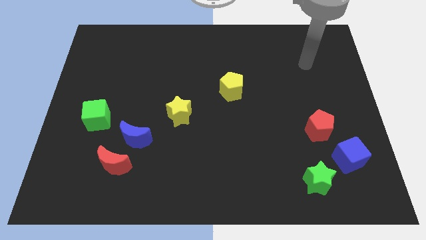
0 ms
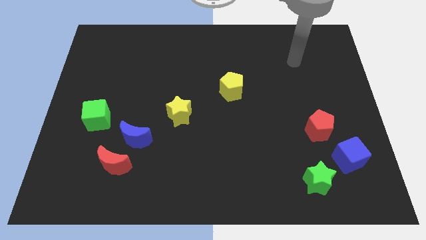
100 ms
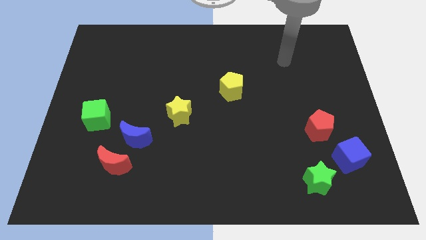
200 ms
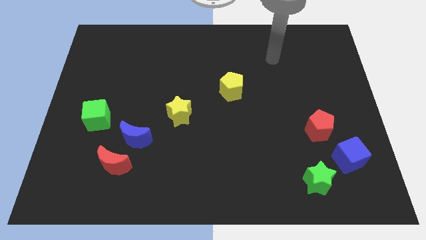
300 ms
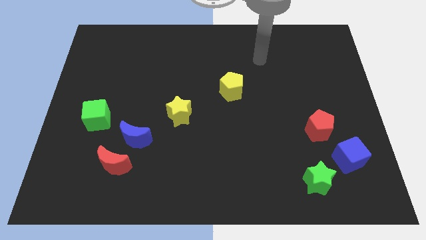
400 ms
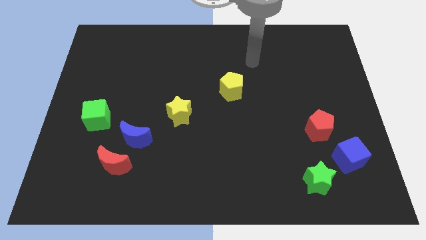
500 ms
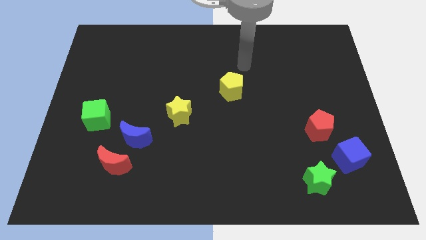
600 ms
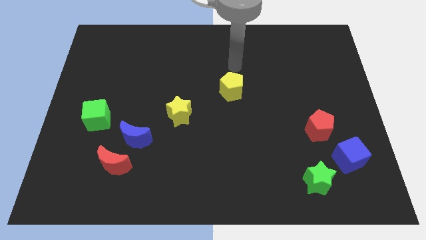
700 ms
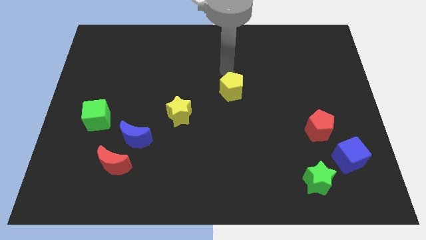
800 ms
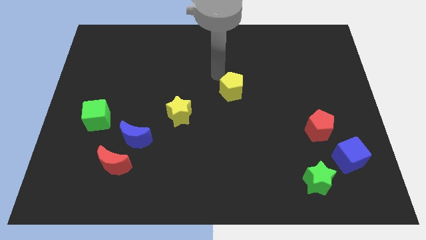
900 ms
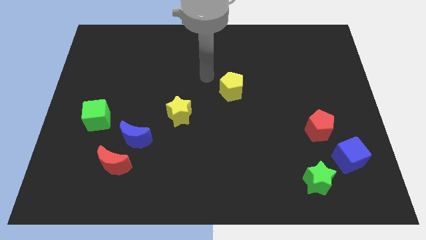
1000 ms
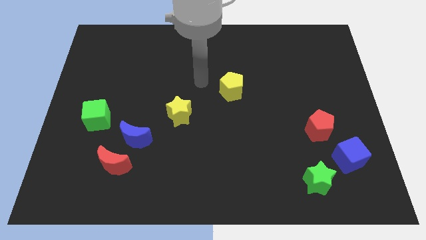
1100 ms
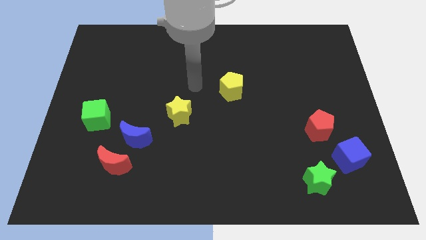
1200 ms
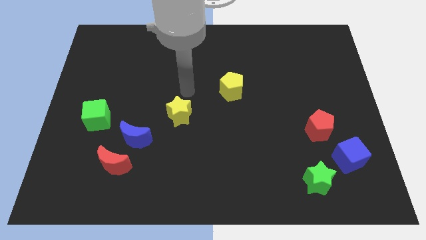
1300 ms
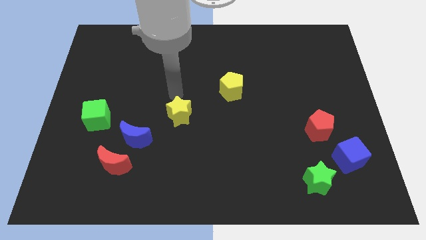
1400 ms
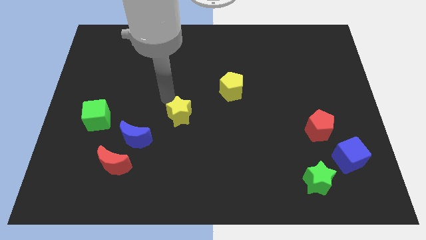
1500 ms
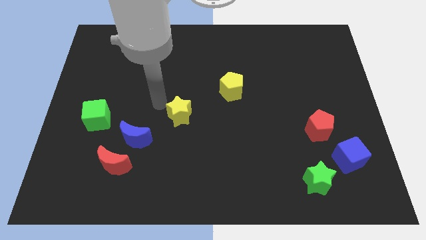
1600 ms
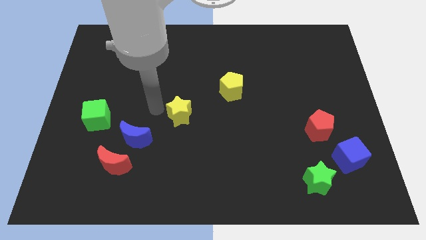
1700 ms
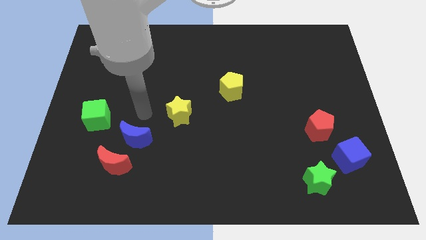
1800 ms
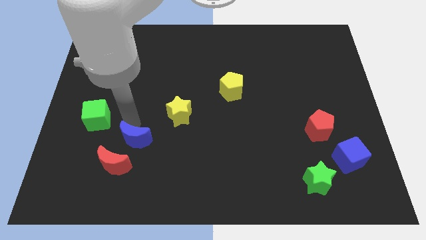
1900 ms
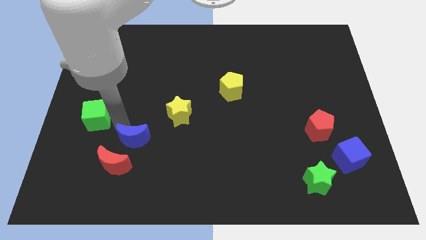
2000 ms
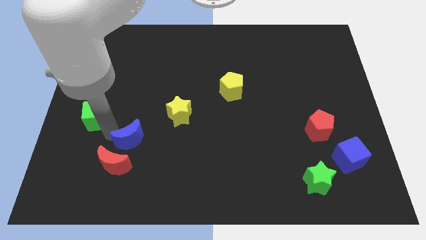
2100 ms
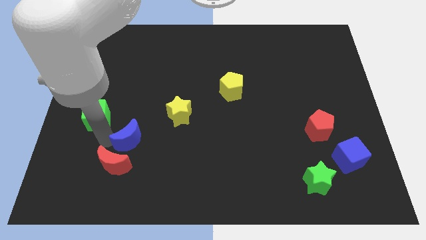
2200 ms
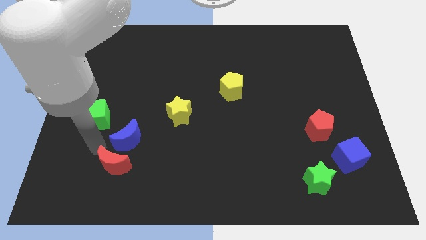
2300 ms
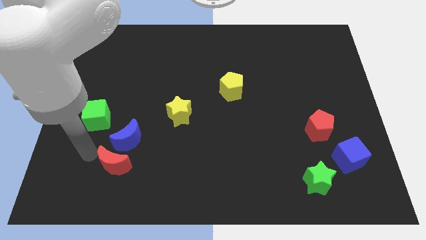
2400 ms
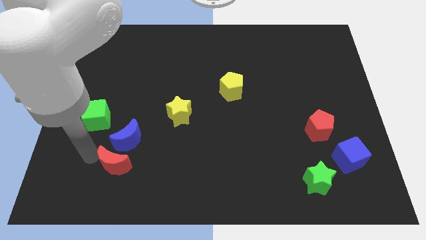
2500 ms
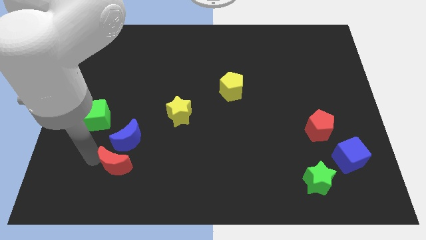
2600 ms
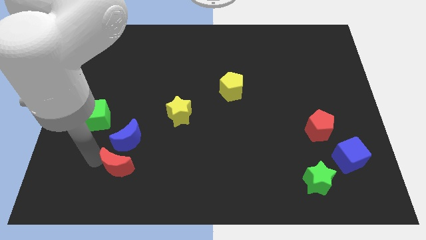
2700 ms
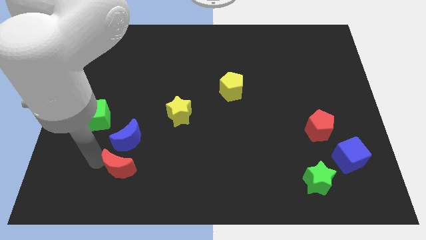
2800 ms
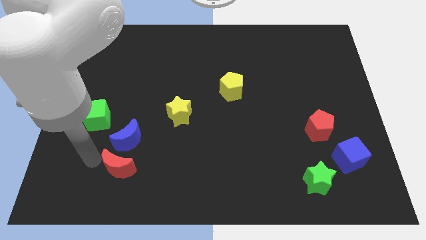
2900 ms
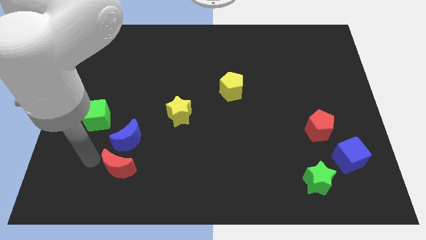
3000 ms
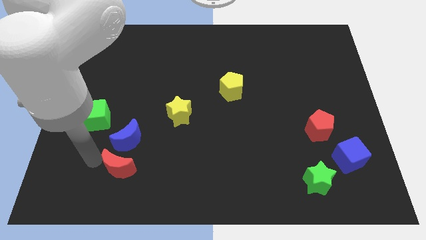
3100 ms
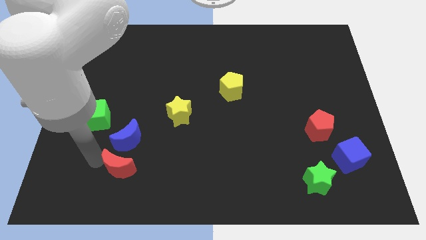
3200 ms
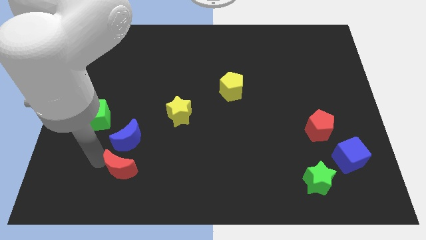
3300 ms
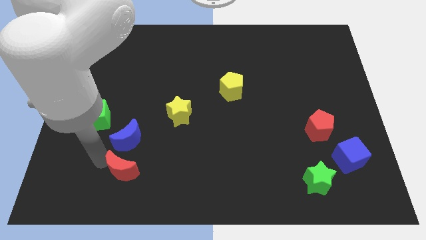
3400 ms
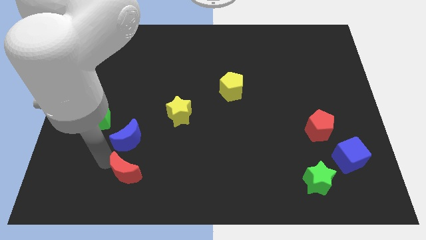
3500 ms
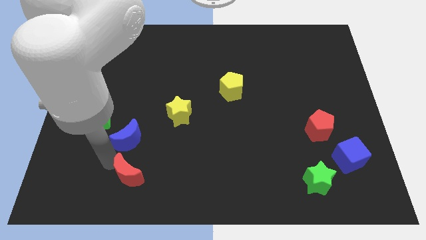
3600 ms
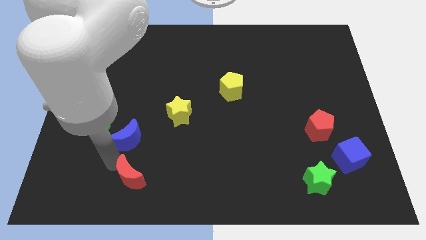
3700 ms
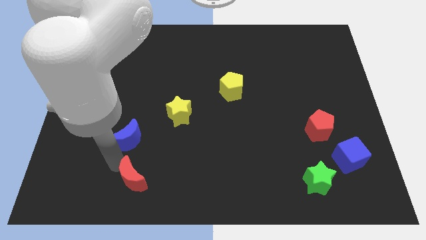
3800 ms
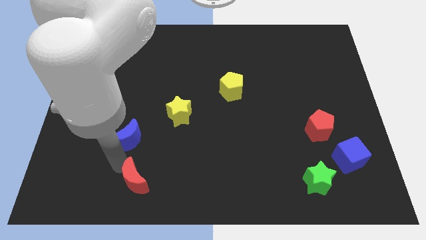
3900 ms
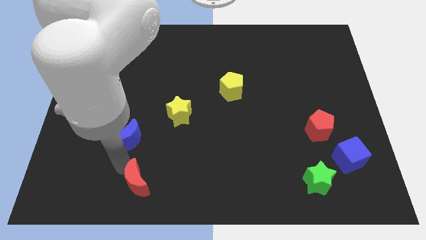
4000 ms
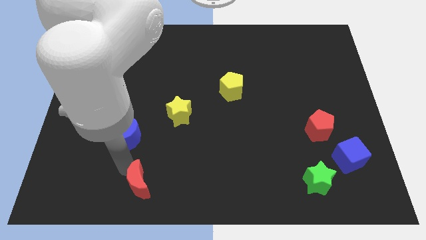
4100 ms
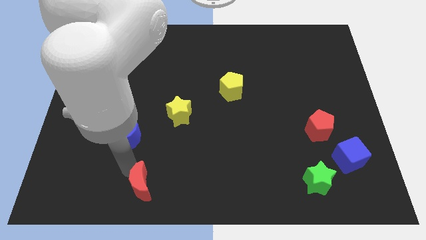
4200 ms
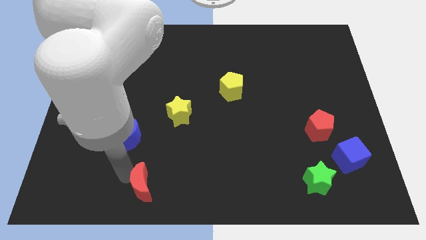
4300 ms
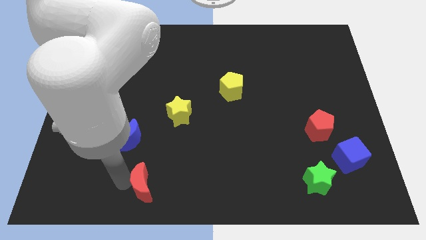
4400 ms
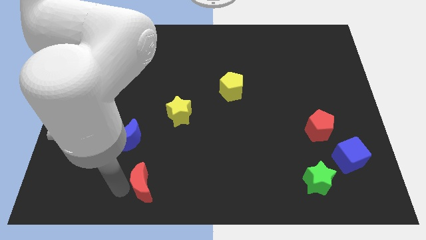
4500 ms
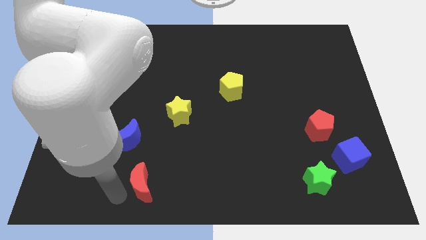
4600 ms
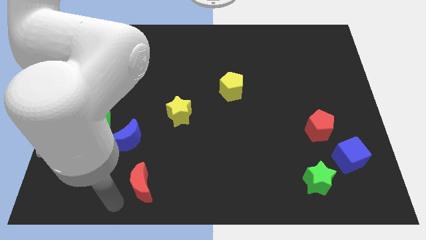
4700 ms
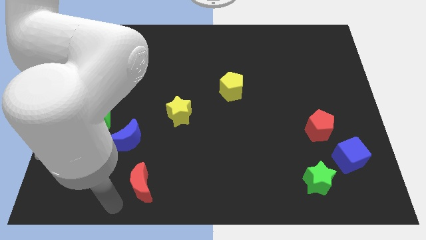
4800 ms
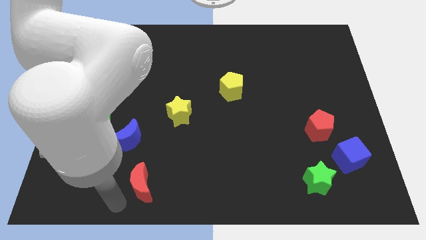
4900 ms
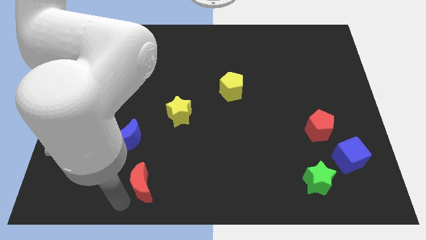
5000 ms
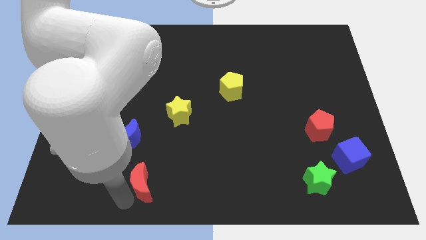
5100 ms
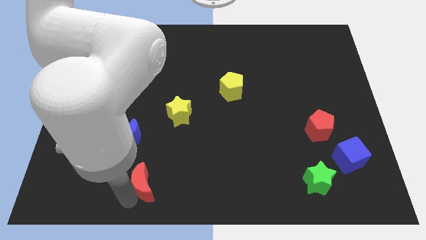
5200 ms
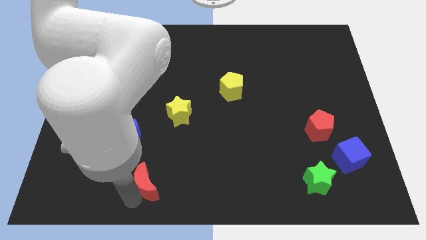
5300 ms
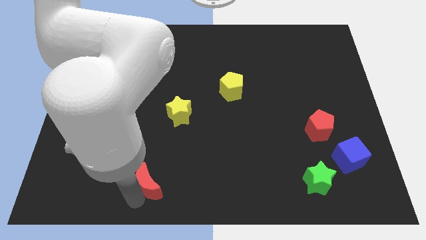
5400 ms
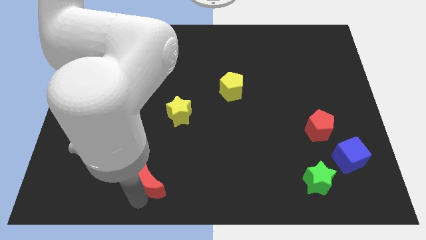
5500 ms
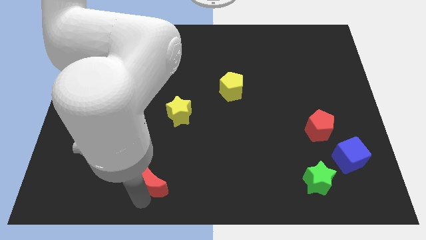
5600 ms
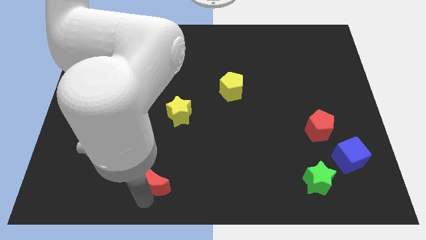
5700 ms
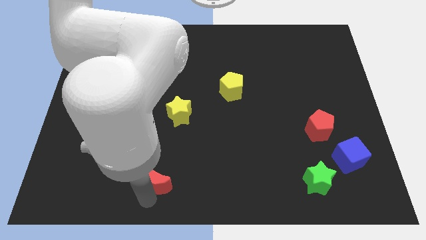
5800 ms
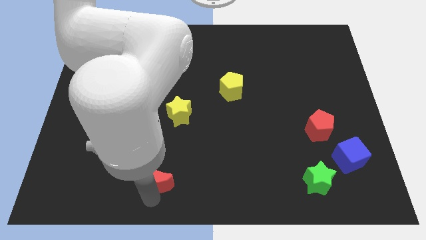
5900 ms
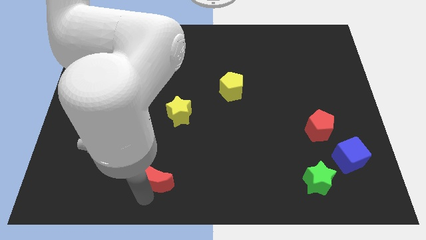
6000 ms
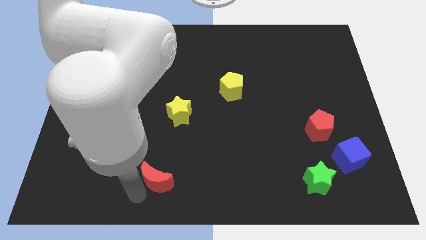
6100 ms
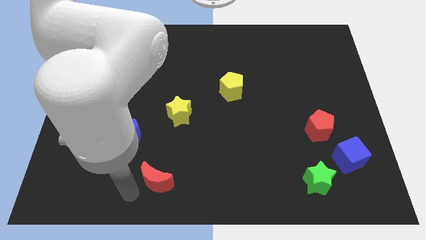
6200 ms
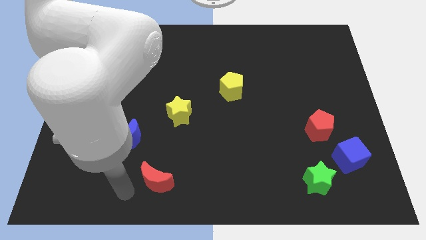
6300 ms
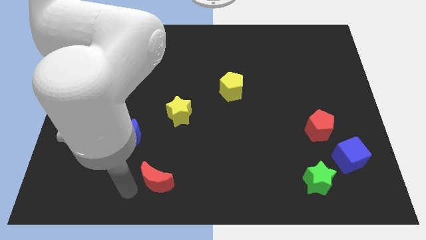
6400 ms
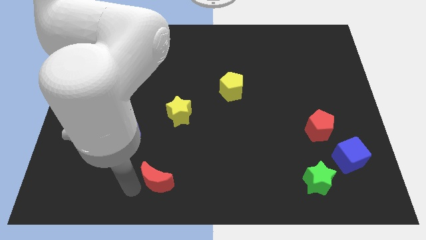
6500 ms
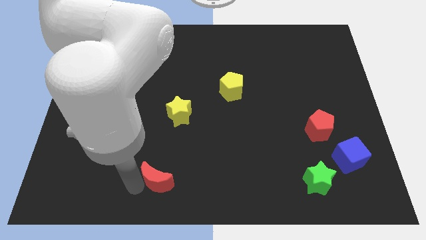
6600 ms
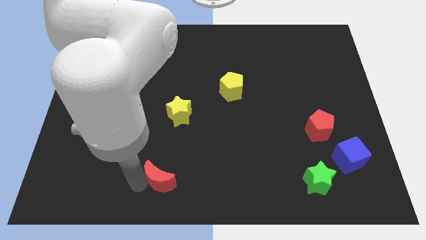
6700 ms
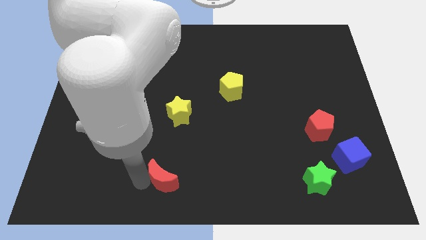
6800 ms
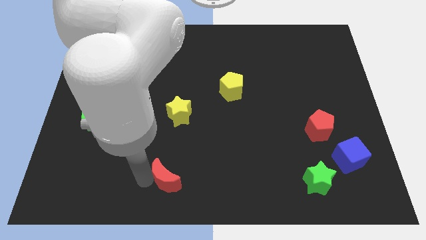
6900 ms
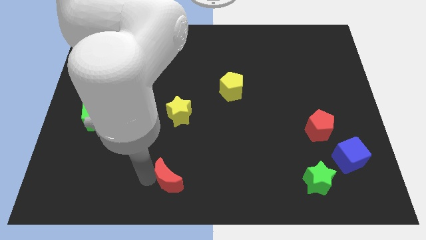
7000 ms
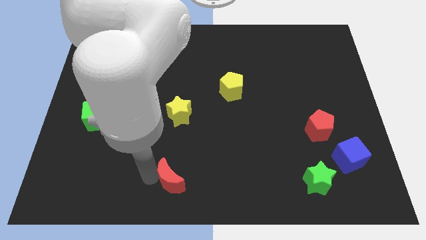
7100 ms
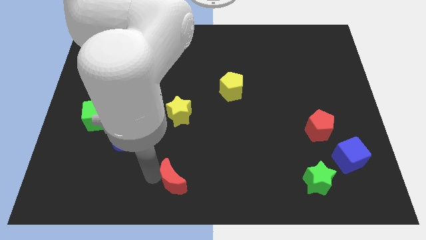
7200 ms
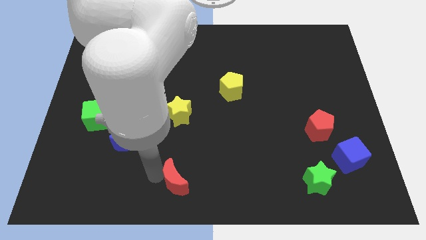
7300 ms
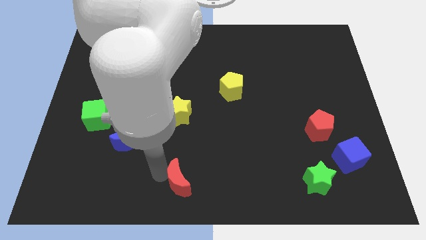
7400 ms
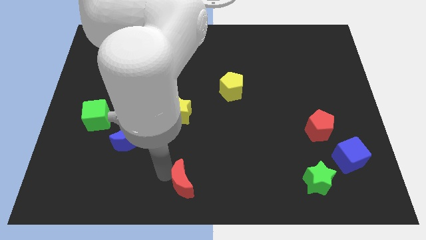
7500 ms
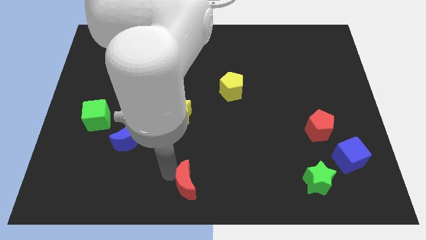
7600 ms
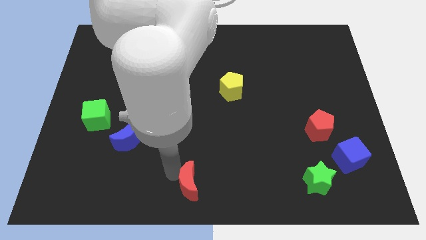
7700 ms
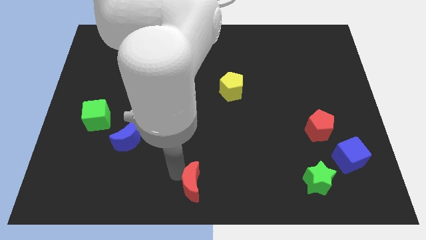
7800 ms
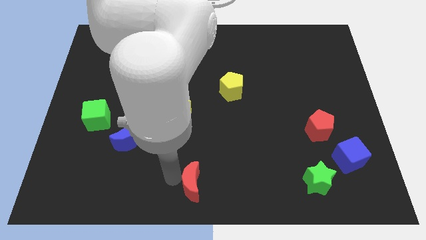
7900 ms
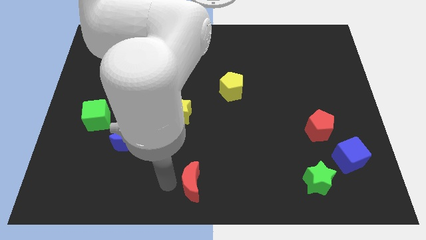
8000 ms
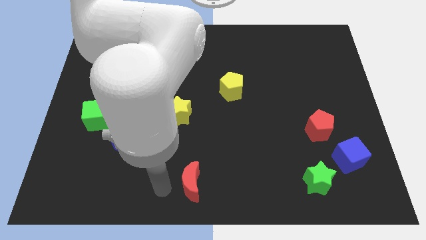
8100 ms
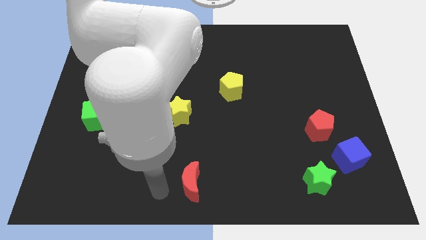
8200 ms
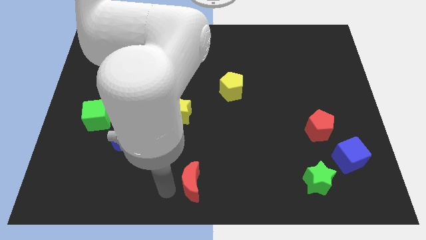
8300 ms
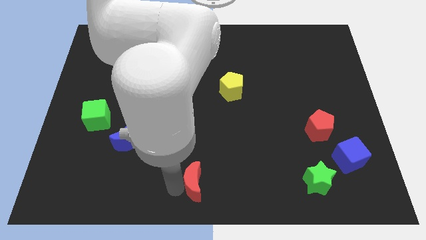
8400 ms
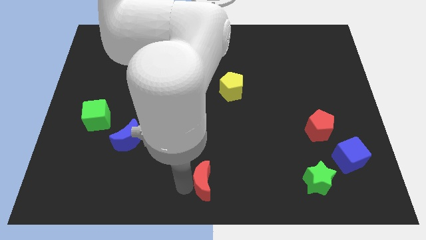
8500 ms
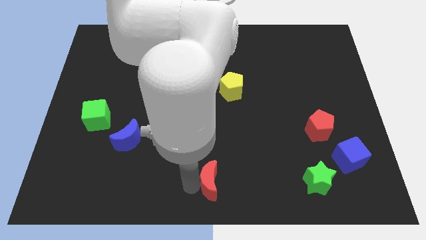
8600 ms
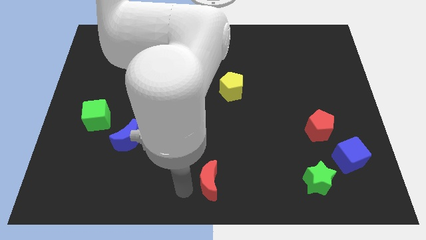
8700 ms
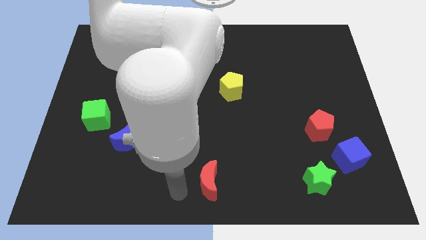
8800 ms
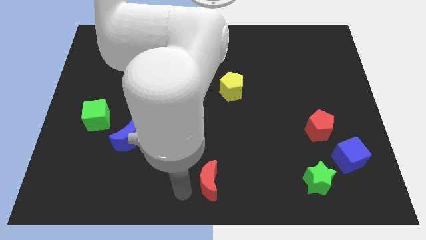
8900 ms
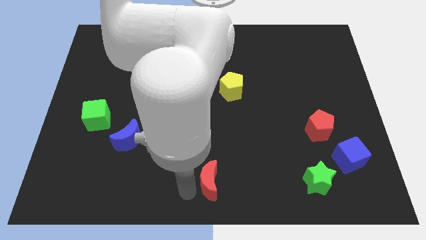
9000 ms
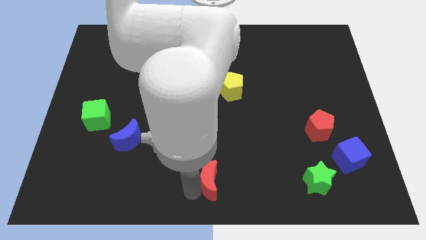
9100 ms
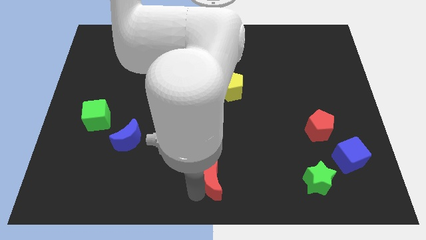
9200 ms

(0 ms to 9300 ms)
push the red moon to the right
